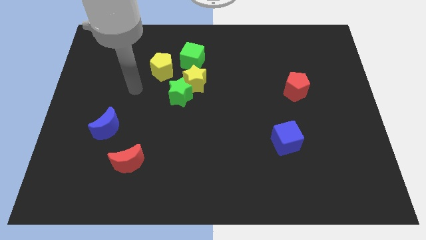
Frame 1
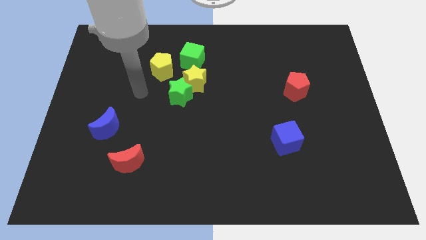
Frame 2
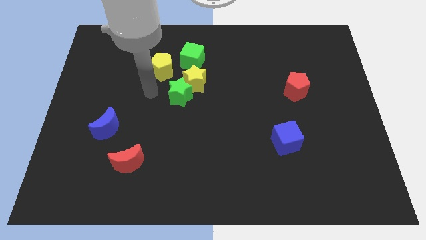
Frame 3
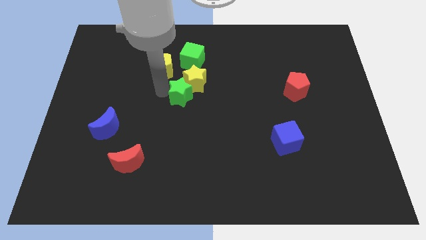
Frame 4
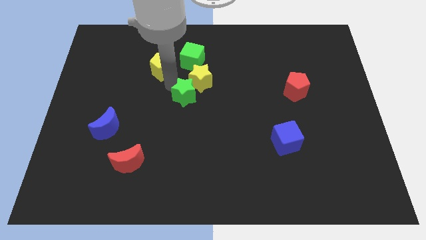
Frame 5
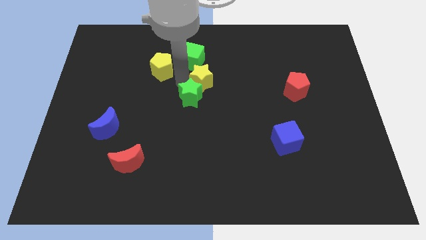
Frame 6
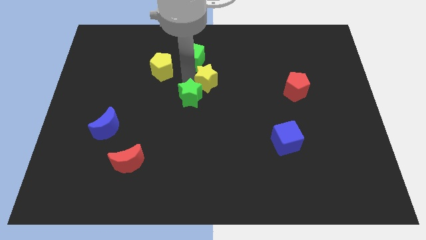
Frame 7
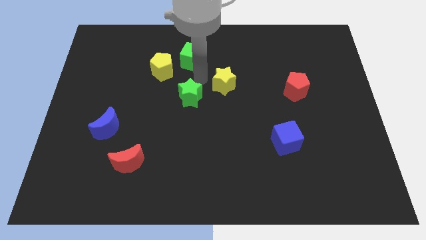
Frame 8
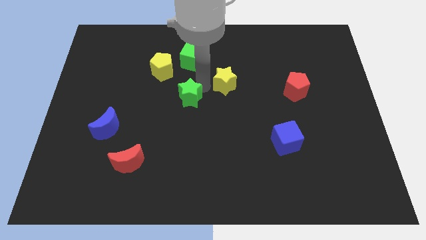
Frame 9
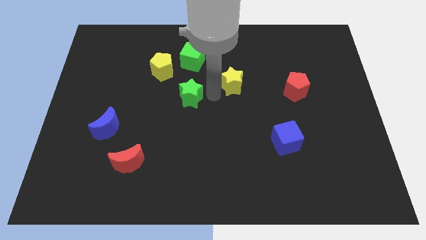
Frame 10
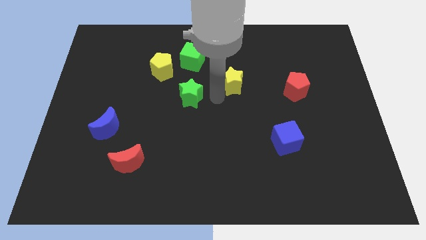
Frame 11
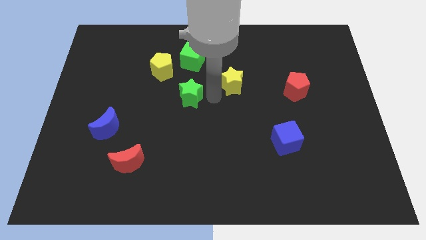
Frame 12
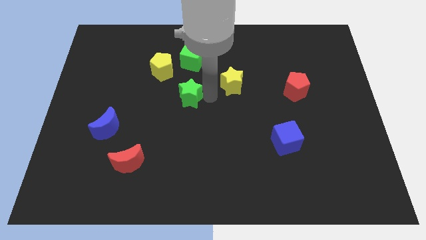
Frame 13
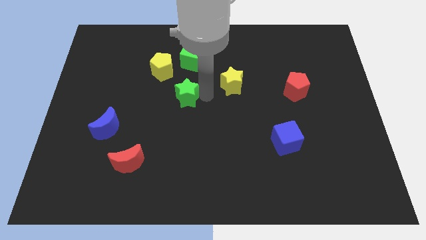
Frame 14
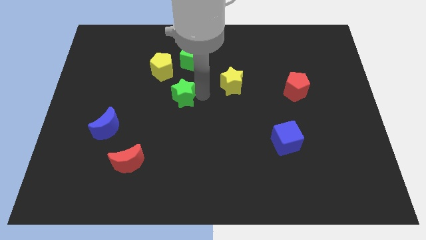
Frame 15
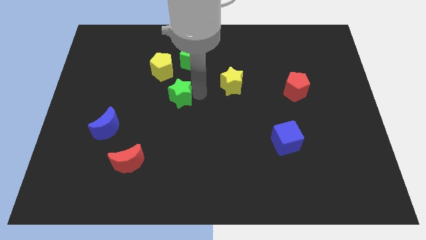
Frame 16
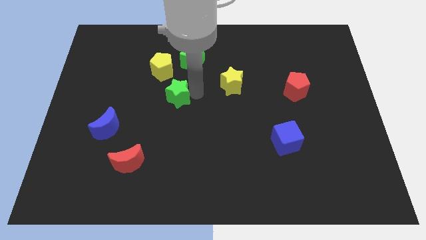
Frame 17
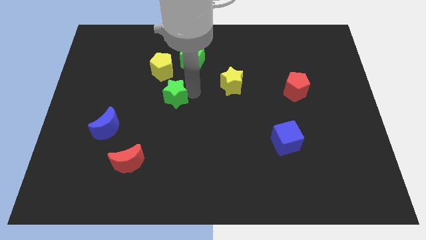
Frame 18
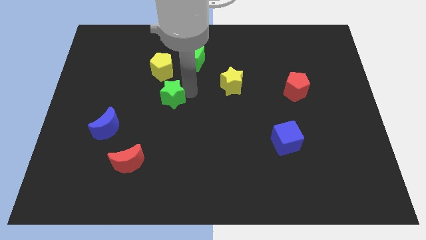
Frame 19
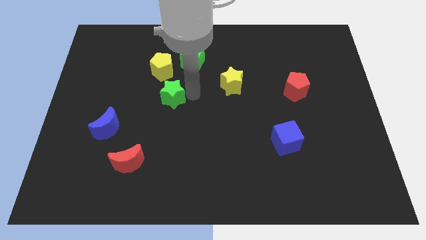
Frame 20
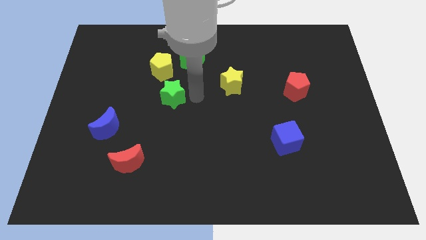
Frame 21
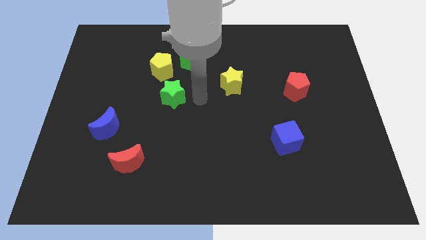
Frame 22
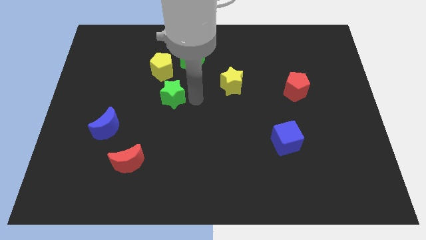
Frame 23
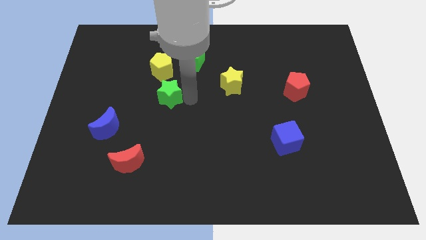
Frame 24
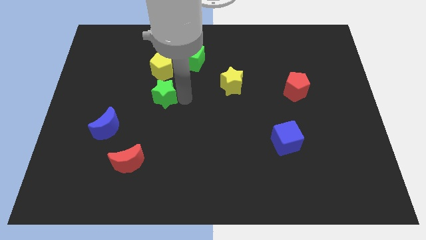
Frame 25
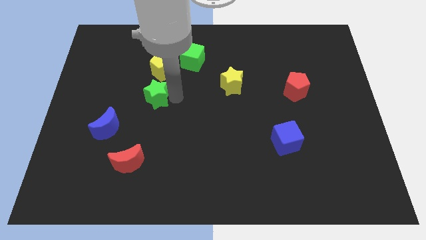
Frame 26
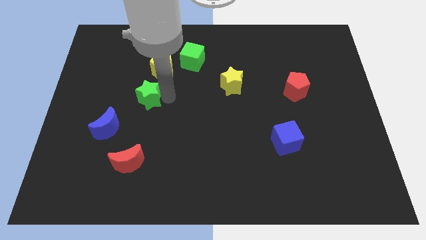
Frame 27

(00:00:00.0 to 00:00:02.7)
slightly push the green star left

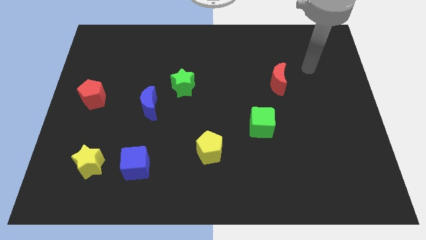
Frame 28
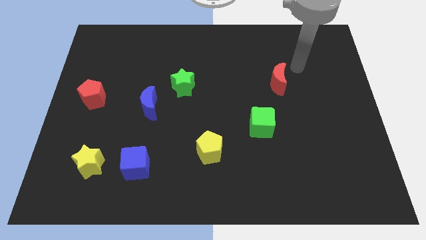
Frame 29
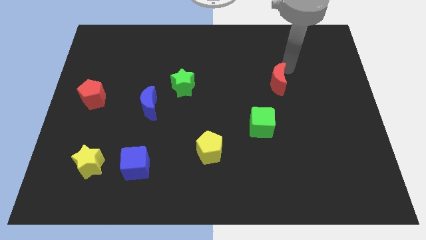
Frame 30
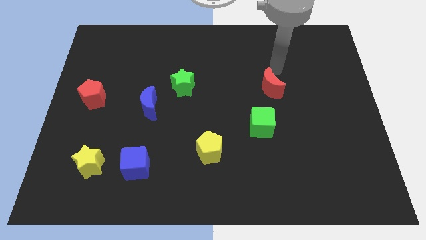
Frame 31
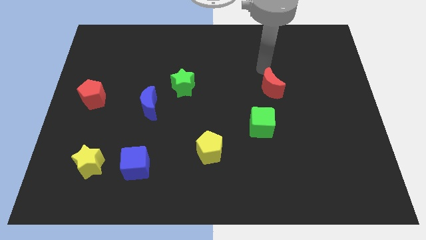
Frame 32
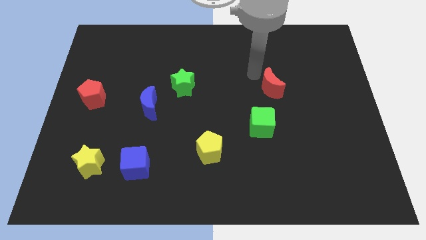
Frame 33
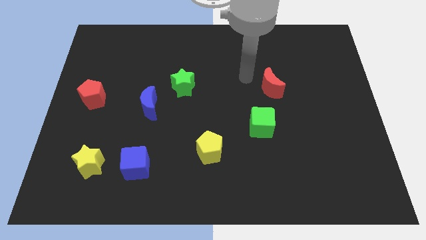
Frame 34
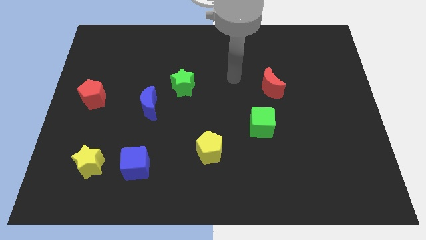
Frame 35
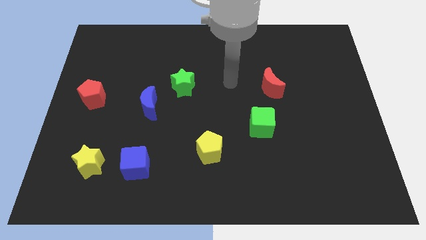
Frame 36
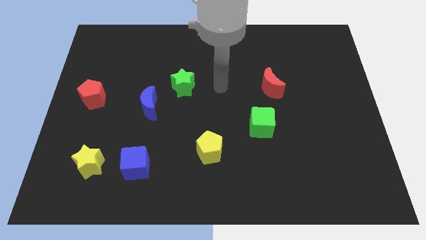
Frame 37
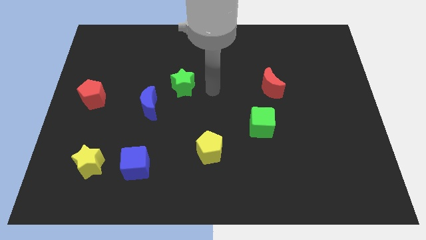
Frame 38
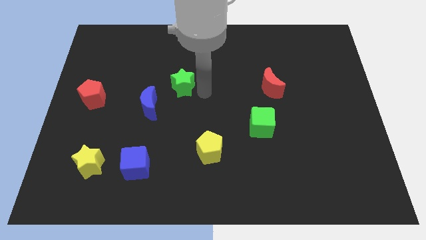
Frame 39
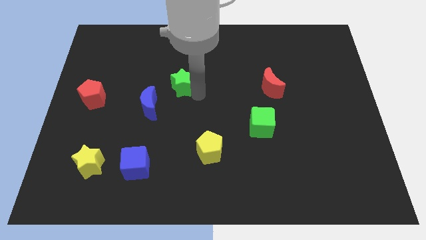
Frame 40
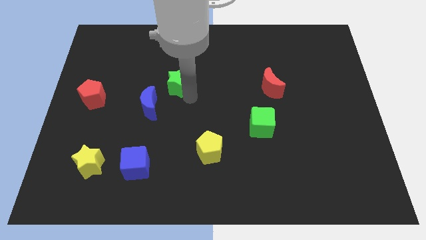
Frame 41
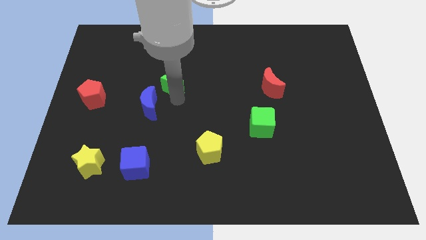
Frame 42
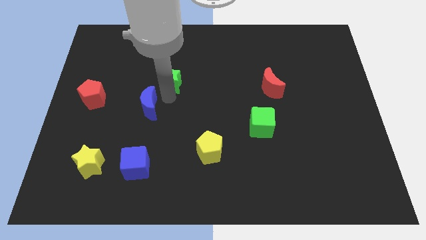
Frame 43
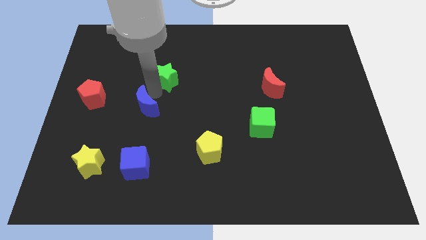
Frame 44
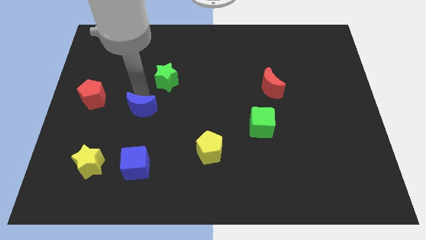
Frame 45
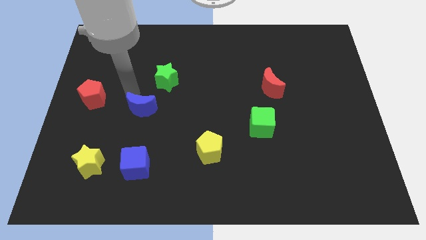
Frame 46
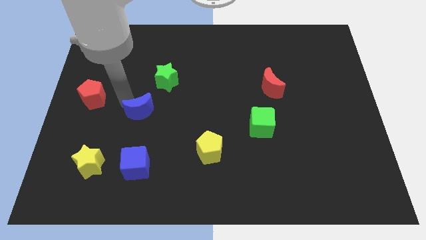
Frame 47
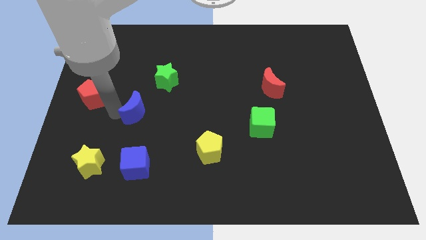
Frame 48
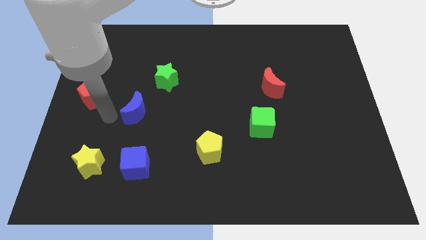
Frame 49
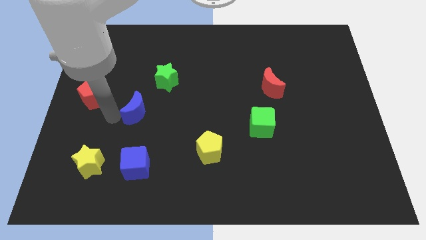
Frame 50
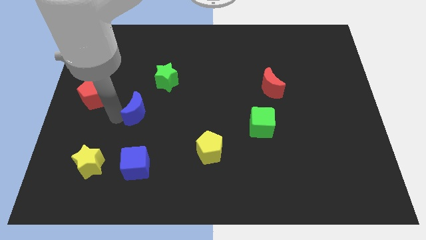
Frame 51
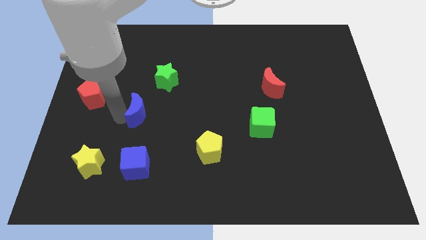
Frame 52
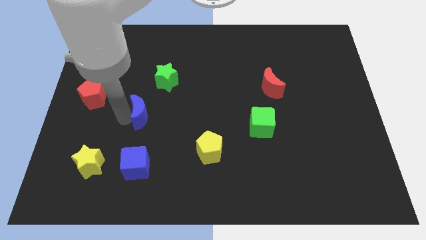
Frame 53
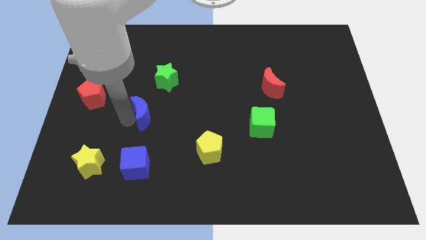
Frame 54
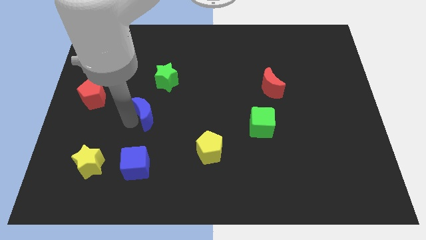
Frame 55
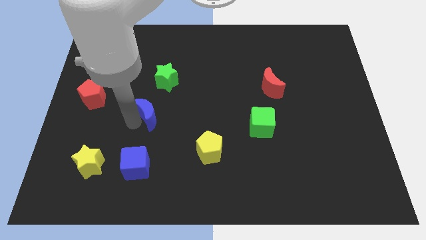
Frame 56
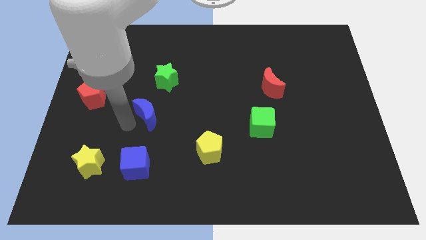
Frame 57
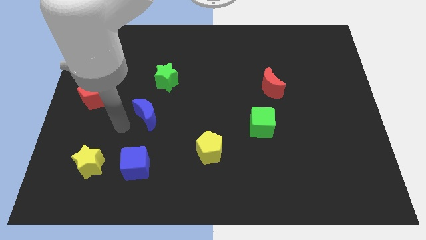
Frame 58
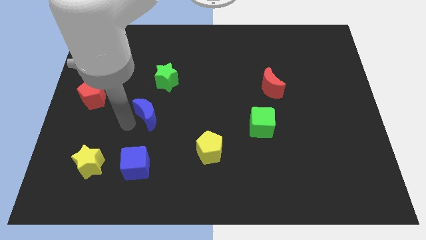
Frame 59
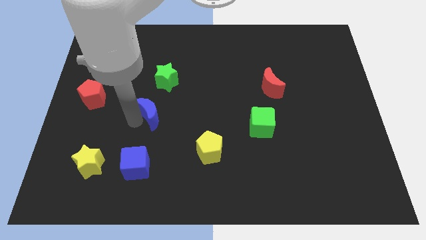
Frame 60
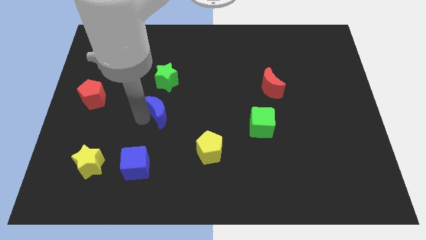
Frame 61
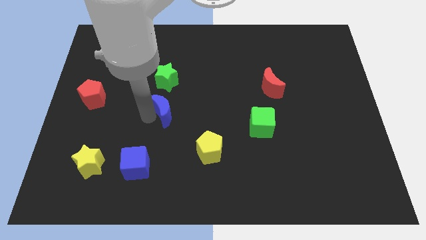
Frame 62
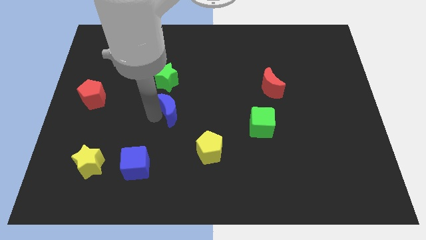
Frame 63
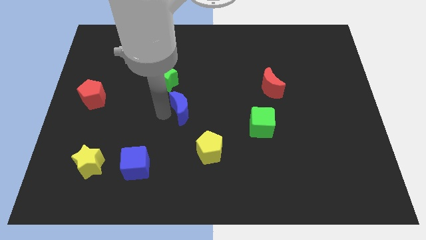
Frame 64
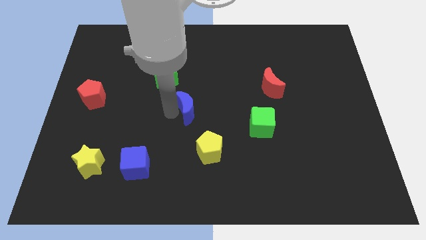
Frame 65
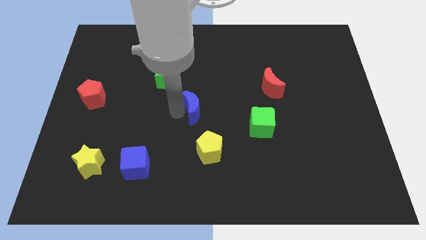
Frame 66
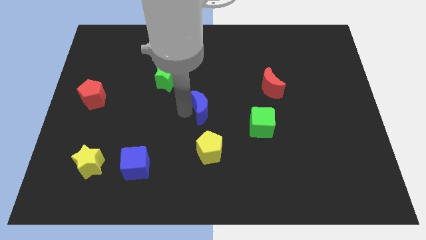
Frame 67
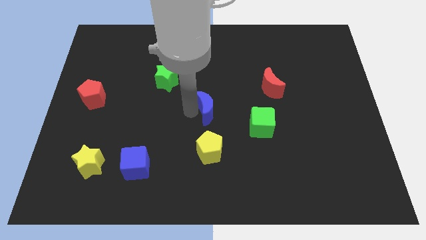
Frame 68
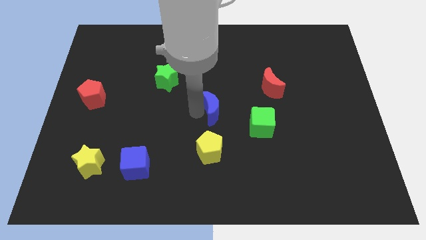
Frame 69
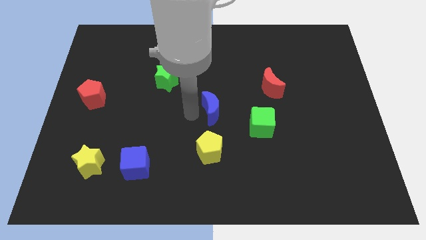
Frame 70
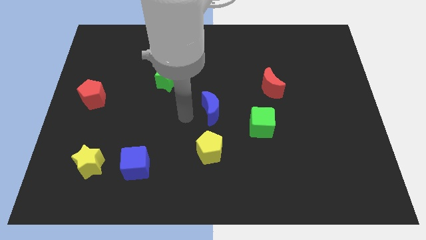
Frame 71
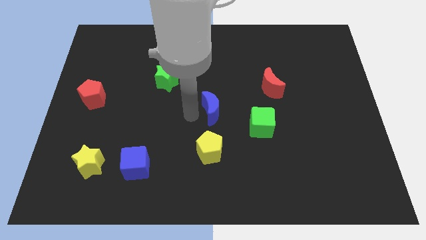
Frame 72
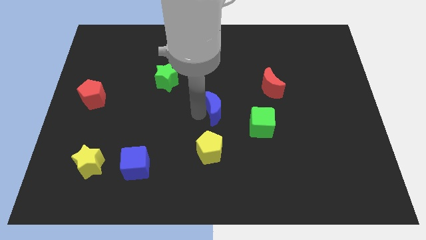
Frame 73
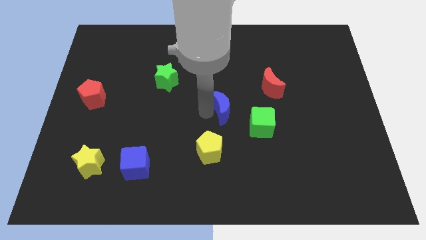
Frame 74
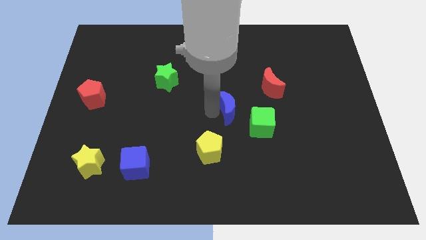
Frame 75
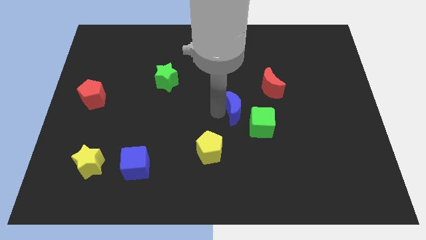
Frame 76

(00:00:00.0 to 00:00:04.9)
move the blue moon to the right

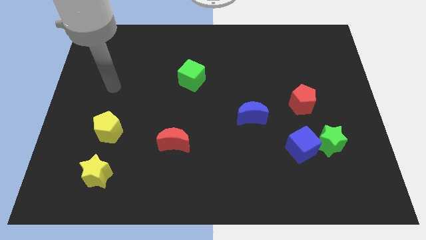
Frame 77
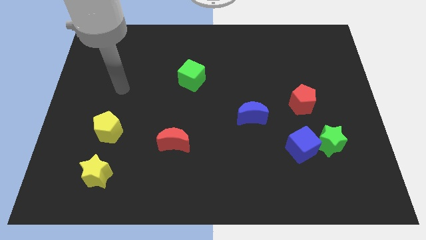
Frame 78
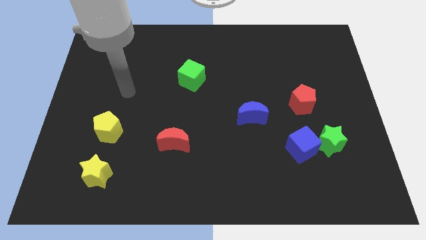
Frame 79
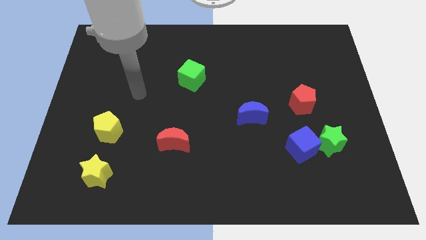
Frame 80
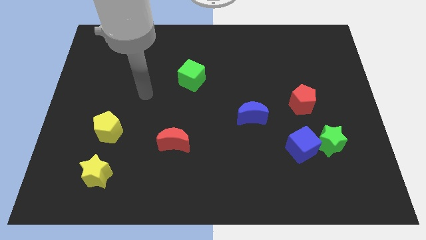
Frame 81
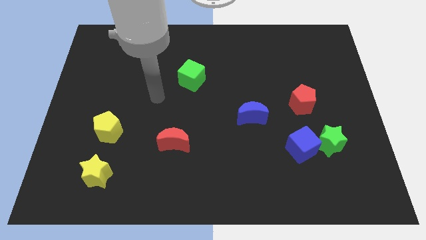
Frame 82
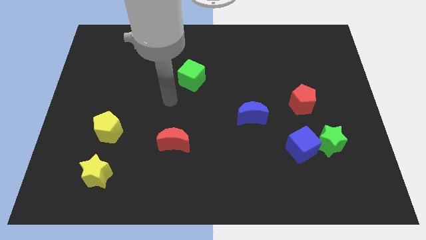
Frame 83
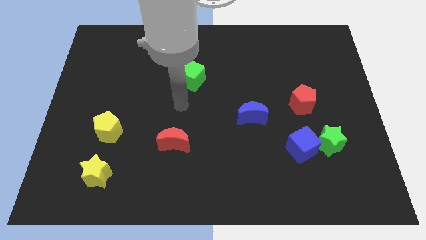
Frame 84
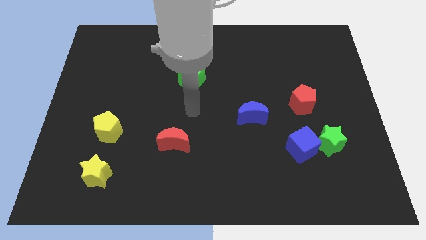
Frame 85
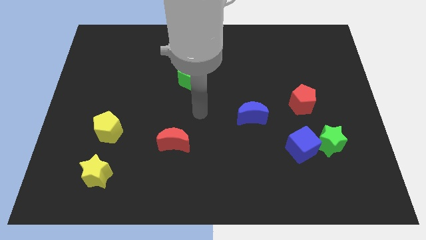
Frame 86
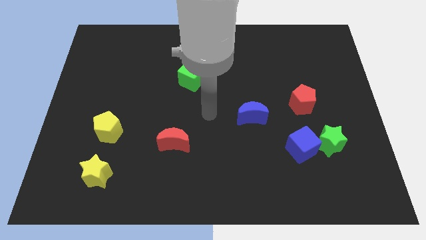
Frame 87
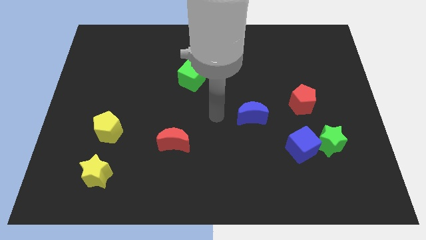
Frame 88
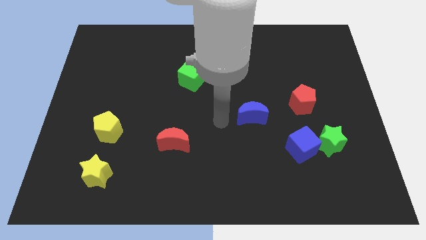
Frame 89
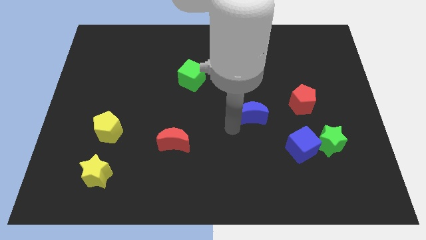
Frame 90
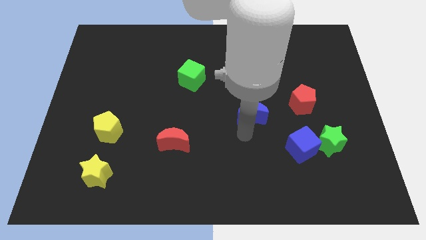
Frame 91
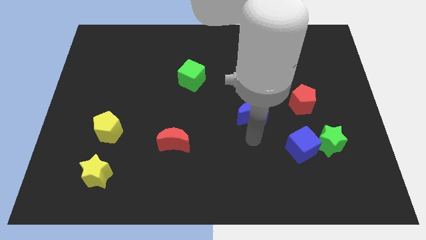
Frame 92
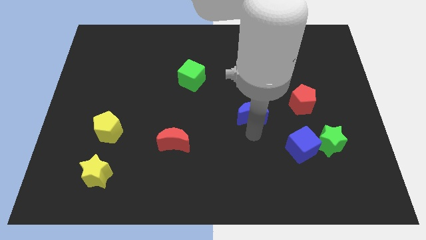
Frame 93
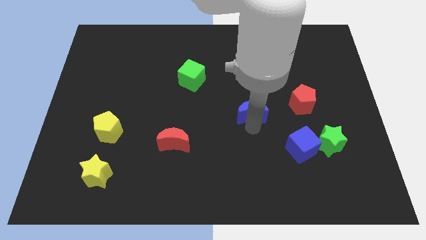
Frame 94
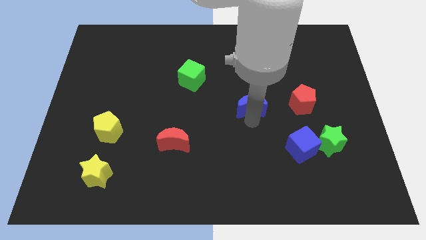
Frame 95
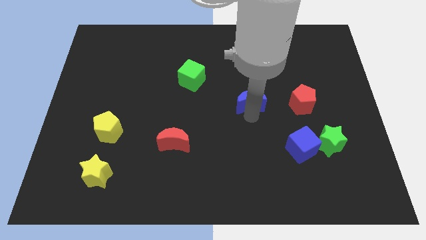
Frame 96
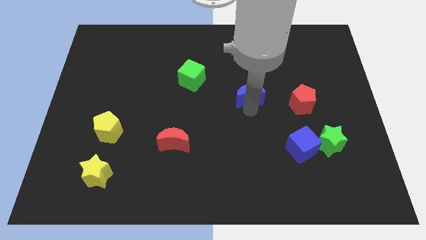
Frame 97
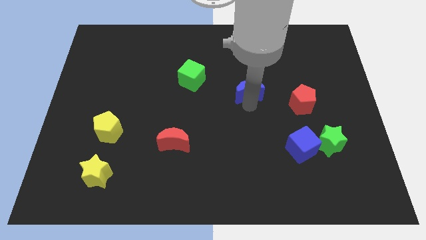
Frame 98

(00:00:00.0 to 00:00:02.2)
slightly push the blue moon upwards
